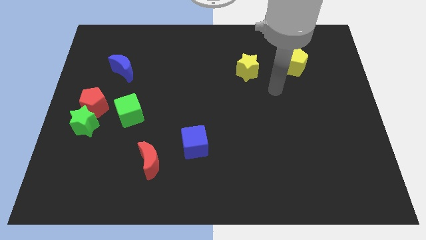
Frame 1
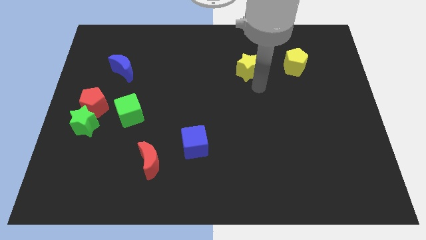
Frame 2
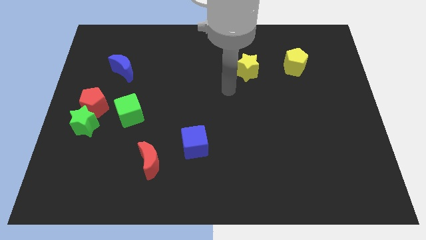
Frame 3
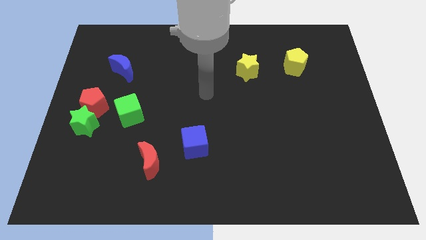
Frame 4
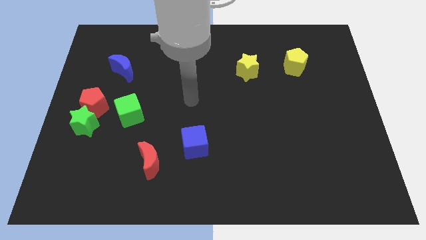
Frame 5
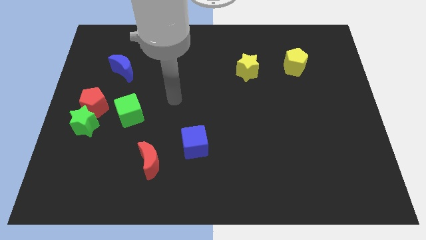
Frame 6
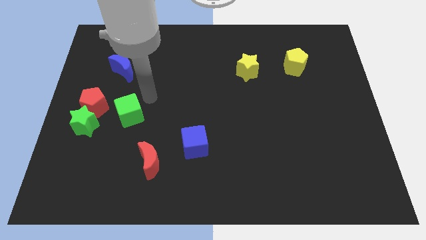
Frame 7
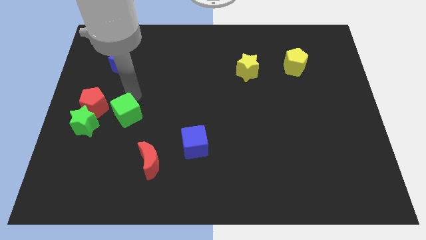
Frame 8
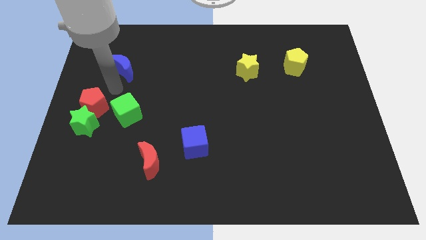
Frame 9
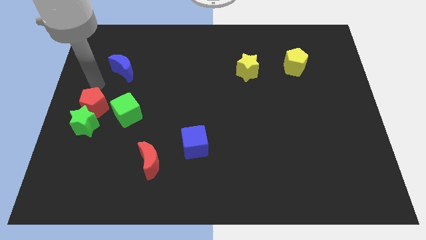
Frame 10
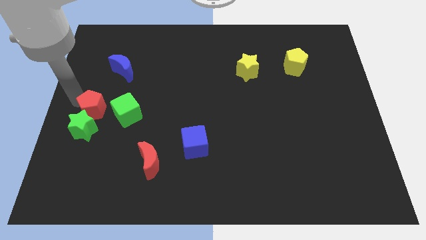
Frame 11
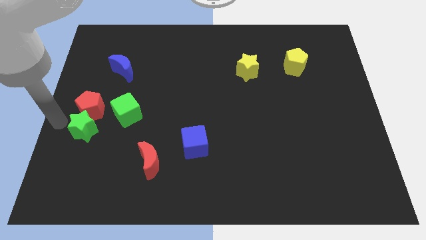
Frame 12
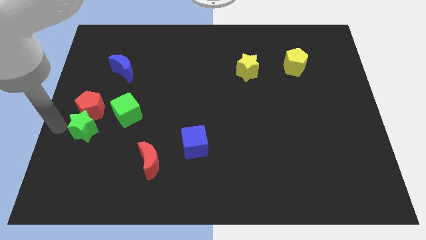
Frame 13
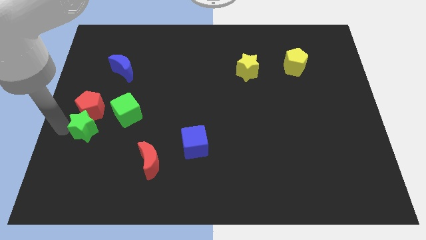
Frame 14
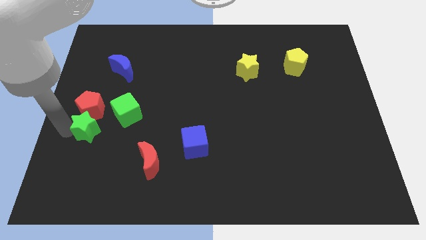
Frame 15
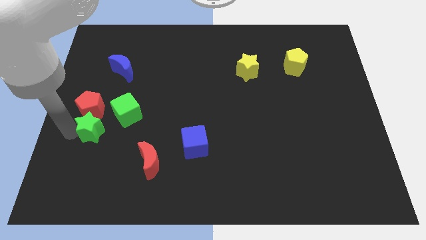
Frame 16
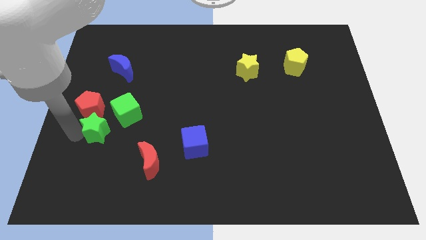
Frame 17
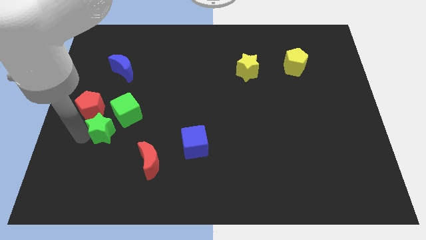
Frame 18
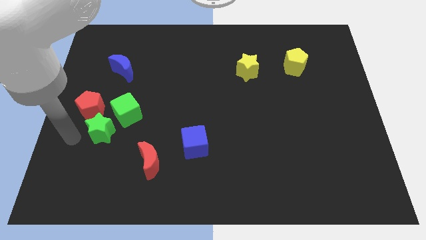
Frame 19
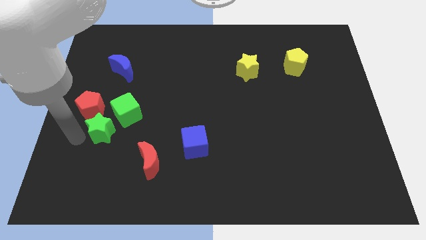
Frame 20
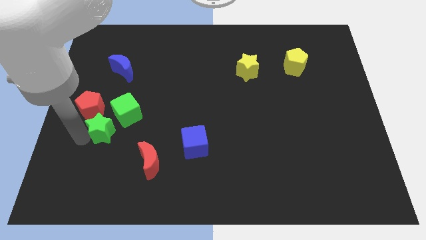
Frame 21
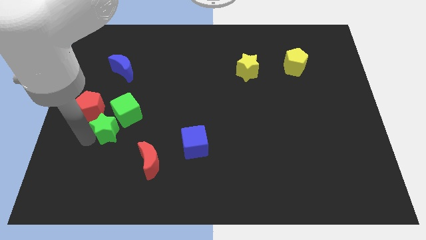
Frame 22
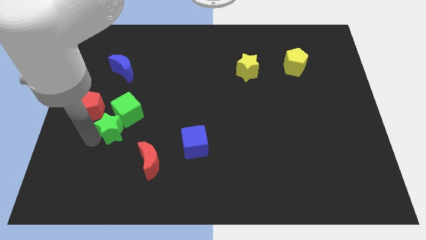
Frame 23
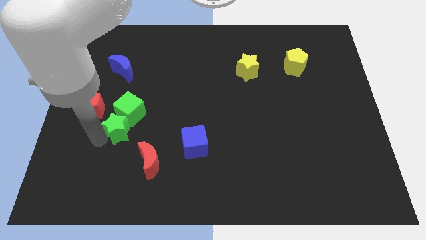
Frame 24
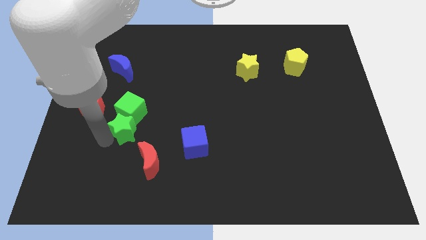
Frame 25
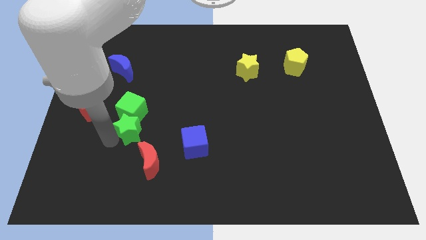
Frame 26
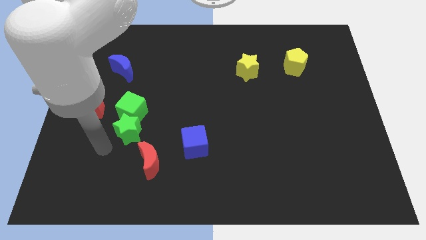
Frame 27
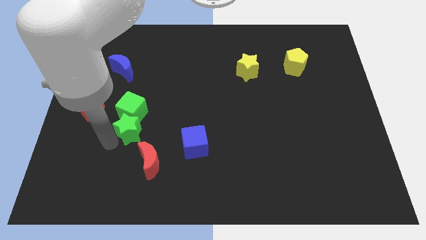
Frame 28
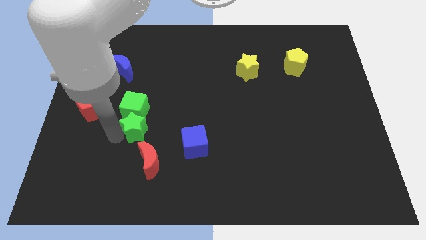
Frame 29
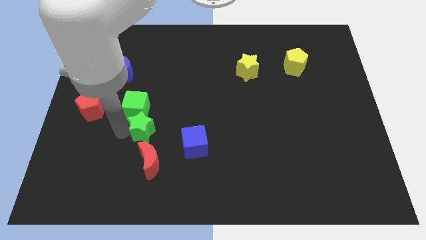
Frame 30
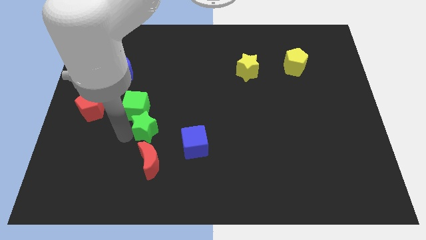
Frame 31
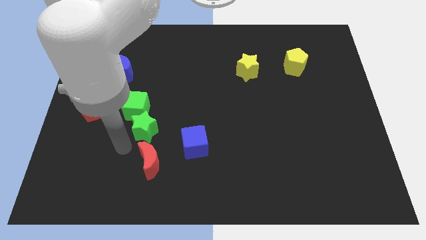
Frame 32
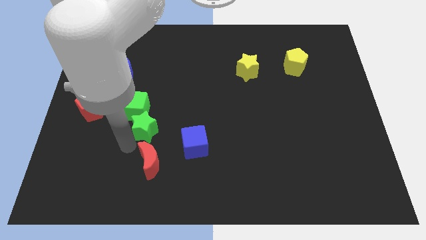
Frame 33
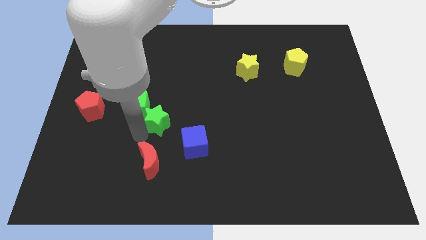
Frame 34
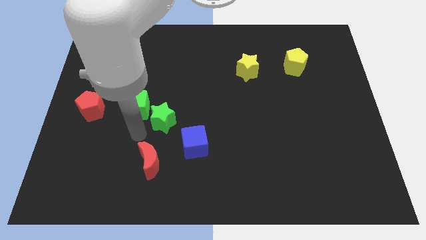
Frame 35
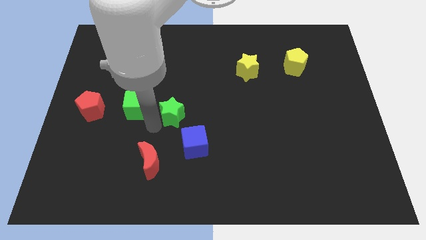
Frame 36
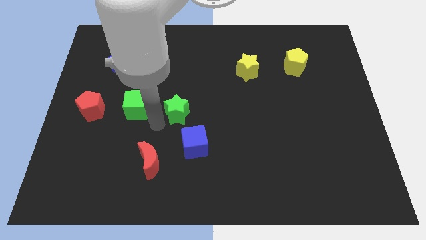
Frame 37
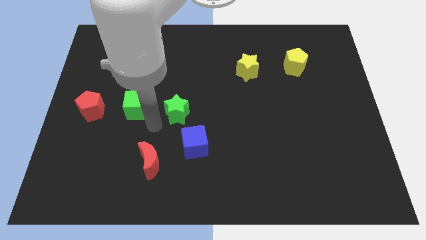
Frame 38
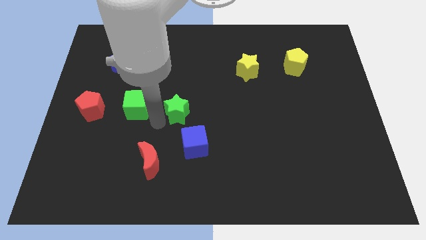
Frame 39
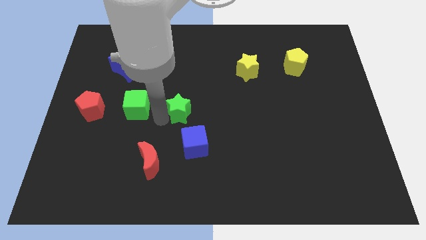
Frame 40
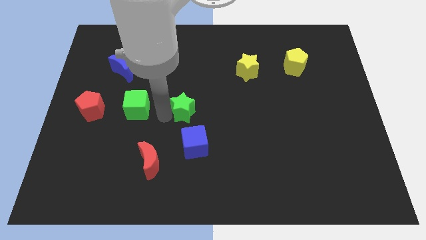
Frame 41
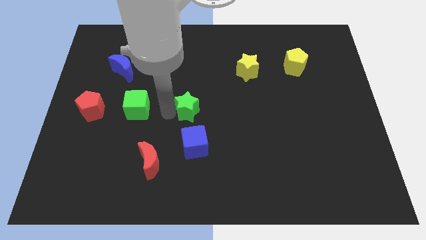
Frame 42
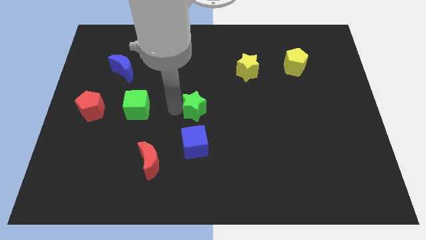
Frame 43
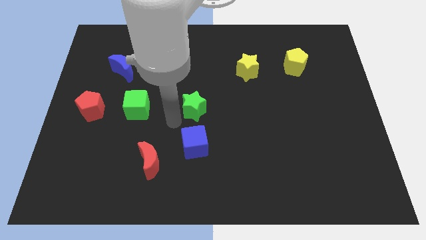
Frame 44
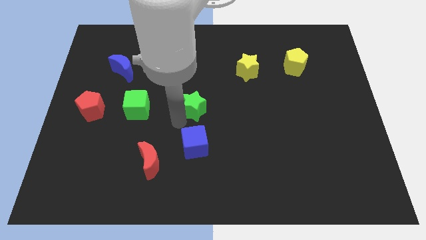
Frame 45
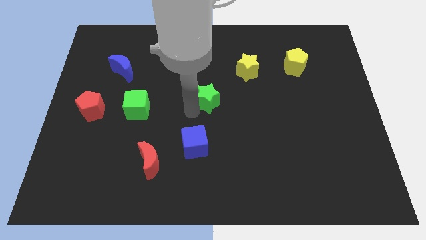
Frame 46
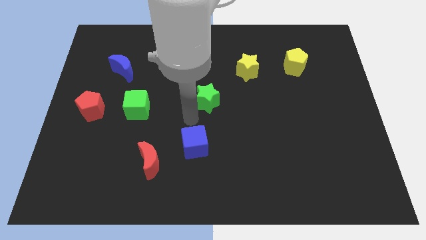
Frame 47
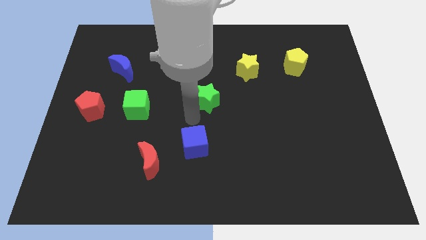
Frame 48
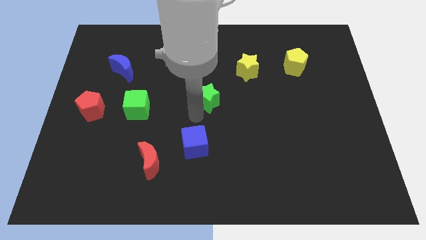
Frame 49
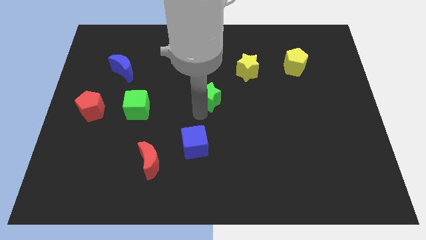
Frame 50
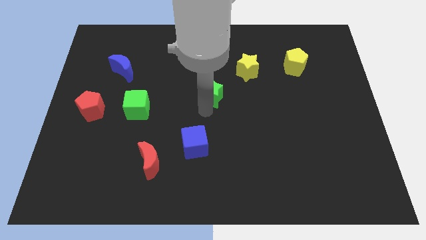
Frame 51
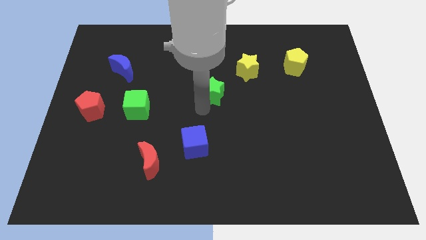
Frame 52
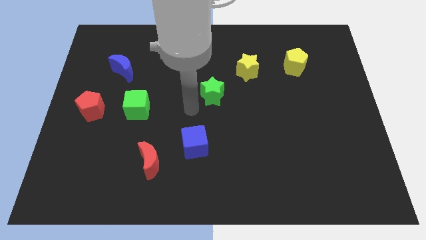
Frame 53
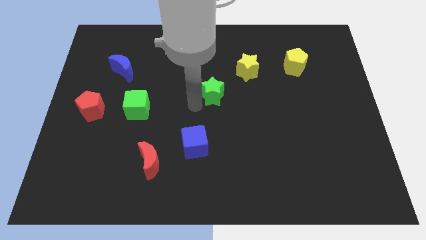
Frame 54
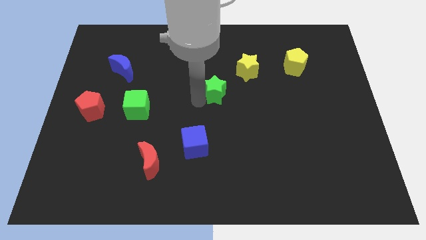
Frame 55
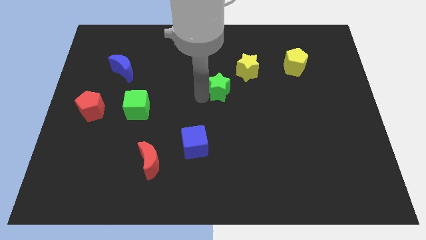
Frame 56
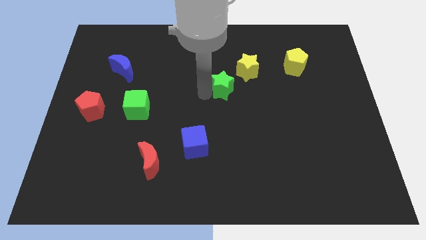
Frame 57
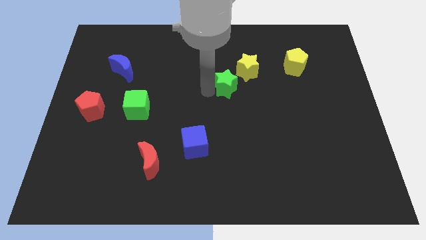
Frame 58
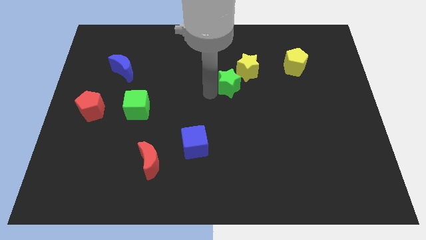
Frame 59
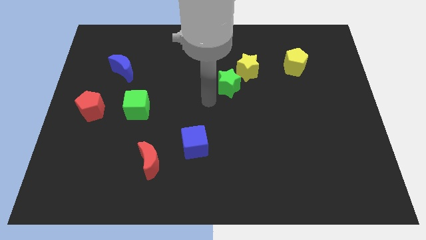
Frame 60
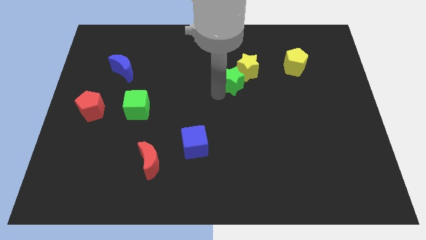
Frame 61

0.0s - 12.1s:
move the green star next to the yellow star
